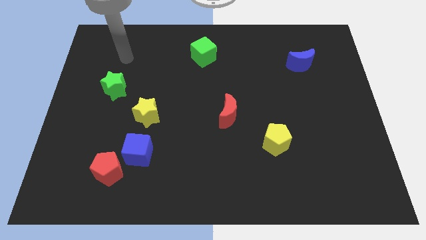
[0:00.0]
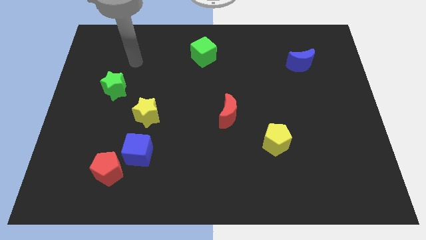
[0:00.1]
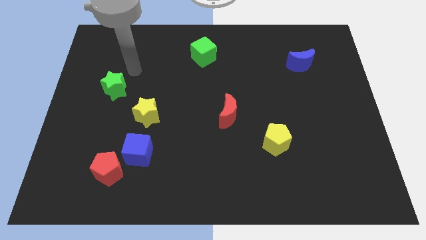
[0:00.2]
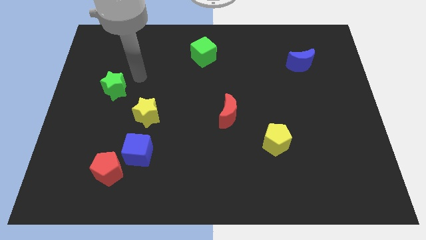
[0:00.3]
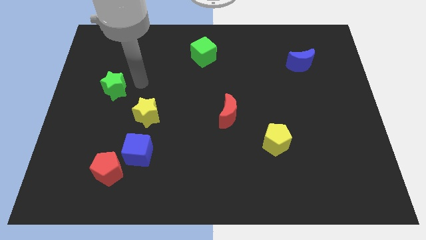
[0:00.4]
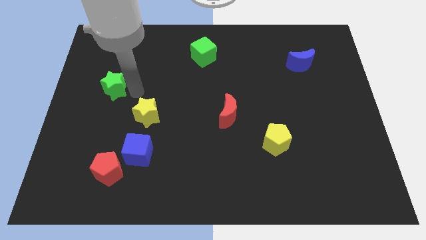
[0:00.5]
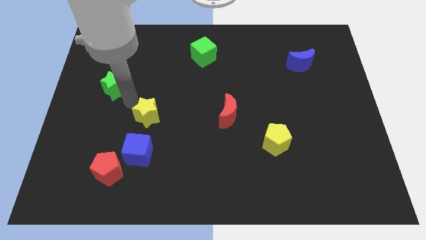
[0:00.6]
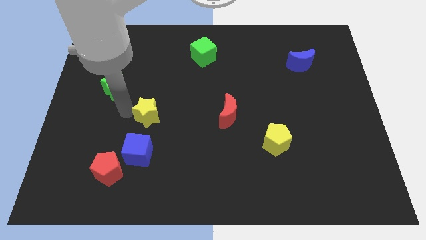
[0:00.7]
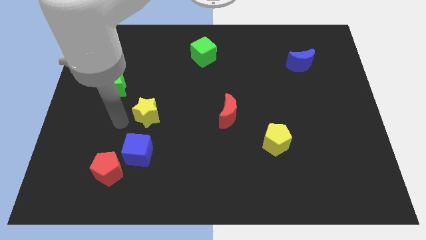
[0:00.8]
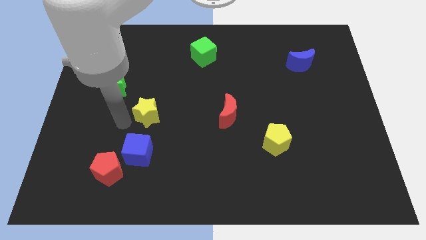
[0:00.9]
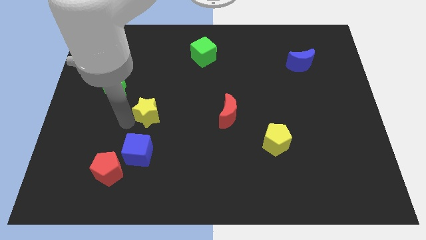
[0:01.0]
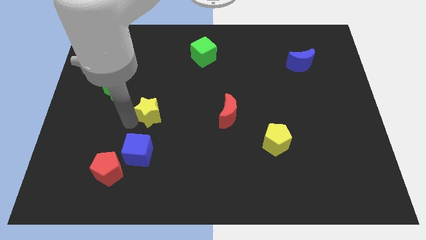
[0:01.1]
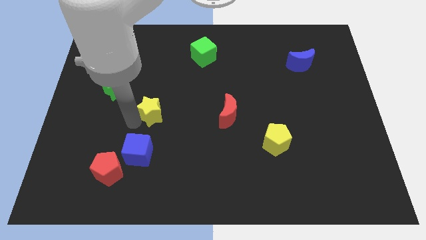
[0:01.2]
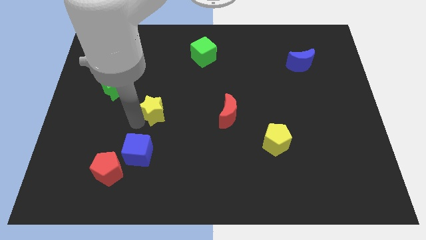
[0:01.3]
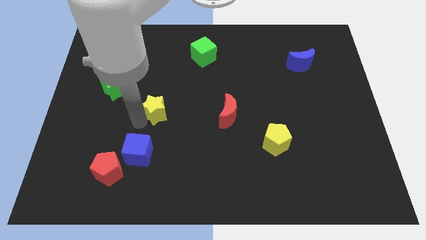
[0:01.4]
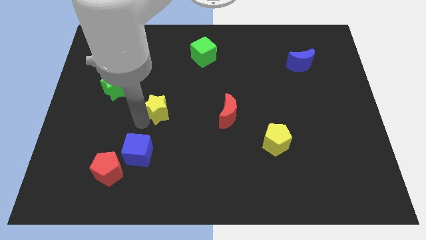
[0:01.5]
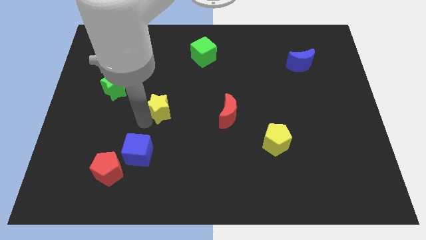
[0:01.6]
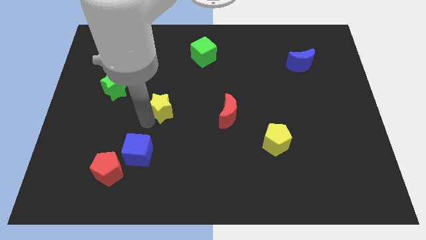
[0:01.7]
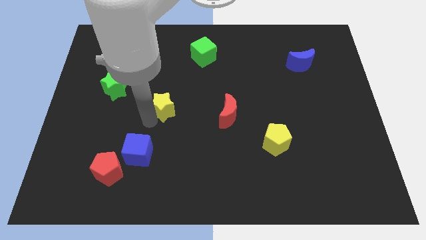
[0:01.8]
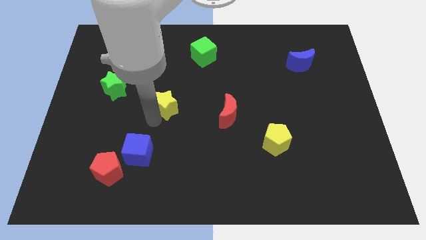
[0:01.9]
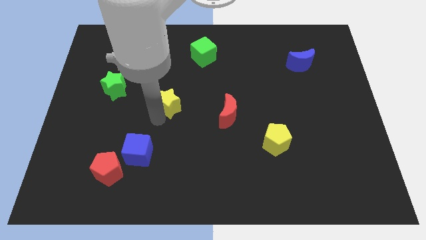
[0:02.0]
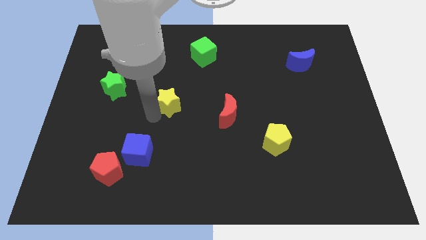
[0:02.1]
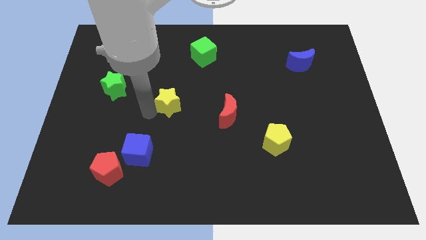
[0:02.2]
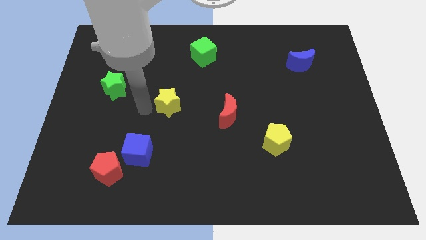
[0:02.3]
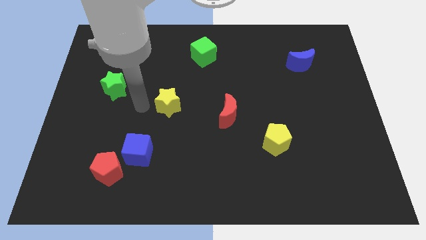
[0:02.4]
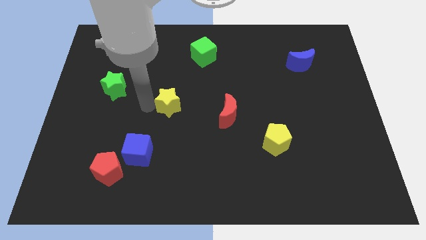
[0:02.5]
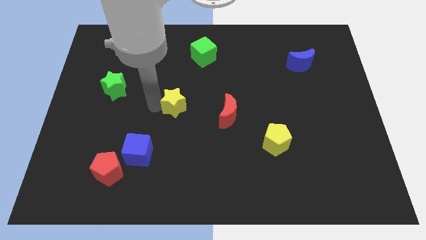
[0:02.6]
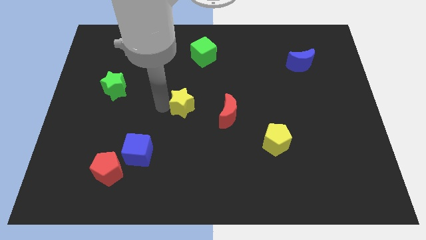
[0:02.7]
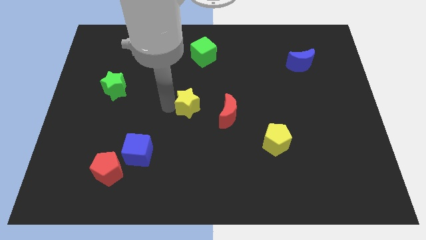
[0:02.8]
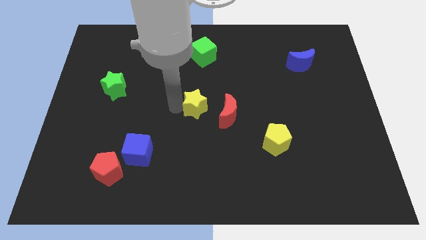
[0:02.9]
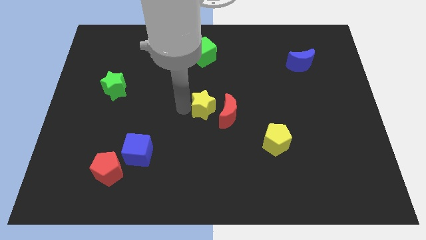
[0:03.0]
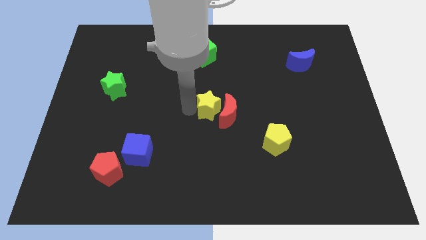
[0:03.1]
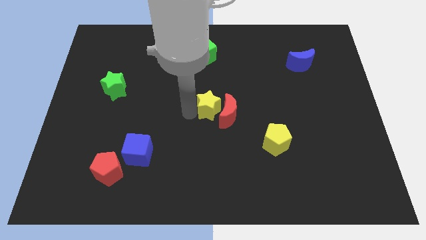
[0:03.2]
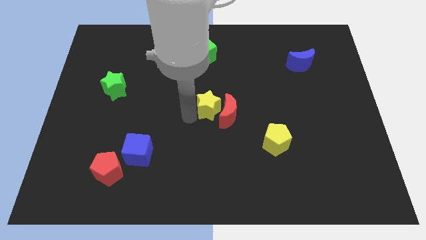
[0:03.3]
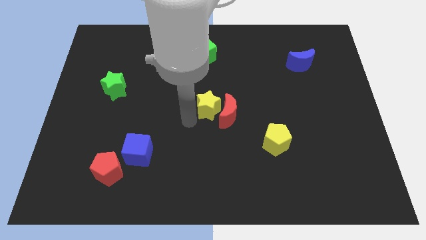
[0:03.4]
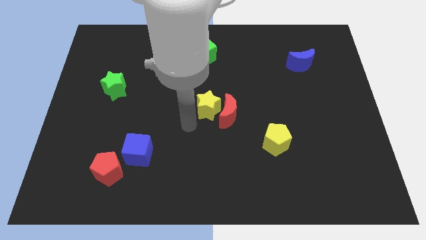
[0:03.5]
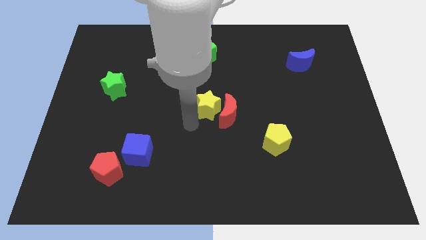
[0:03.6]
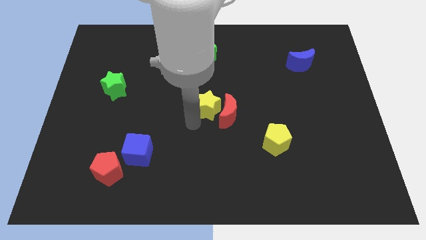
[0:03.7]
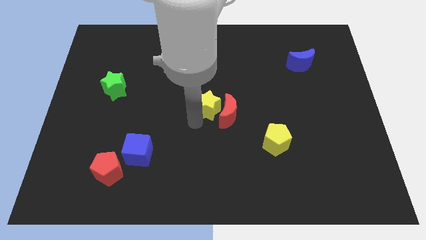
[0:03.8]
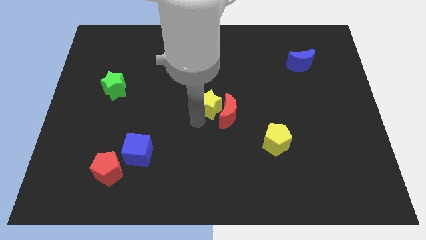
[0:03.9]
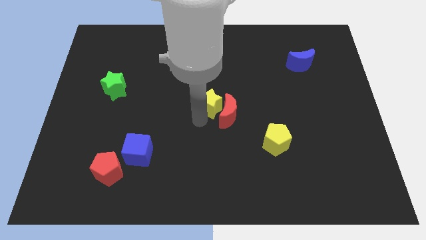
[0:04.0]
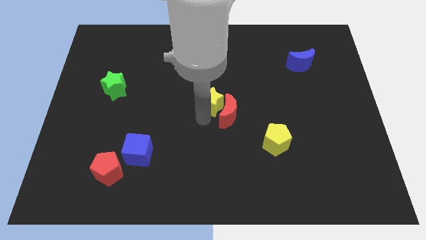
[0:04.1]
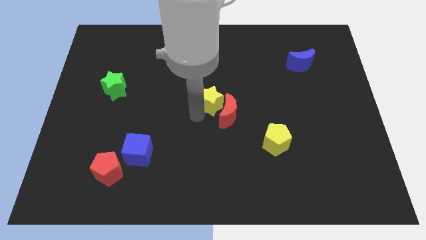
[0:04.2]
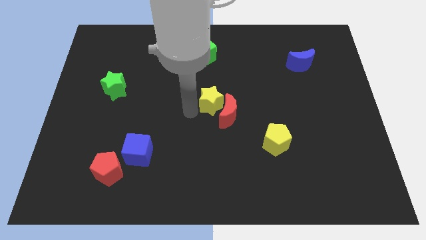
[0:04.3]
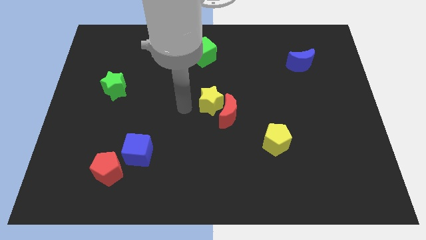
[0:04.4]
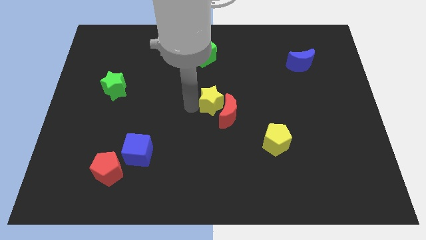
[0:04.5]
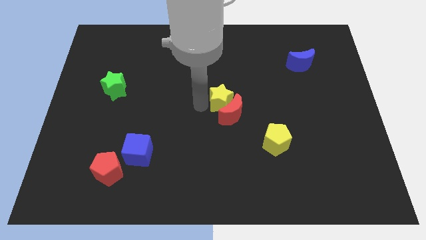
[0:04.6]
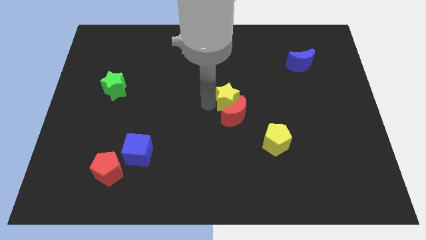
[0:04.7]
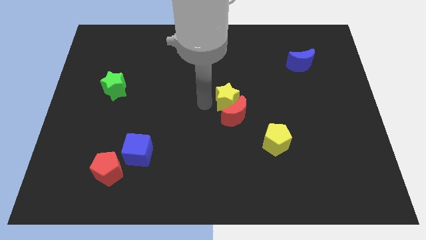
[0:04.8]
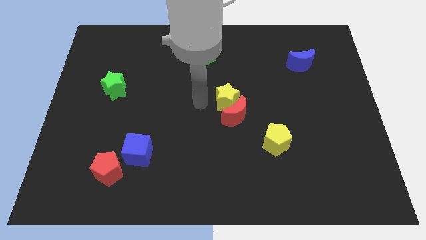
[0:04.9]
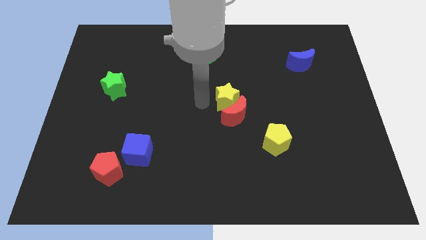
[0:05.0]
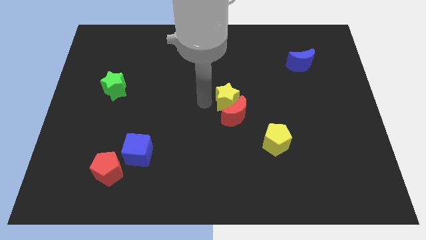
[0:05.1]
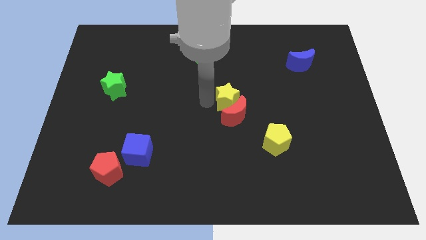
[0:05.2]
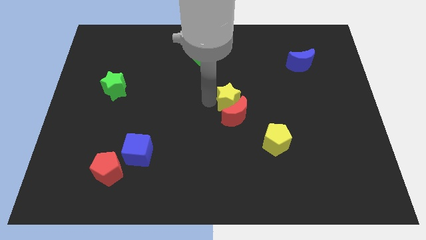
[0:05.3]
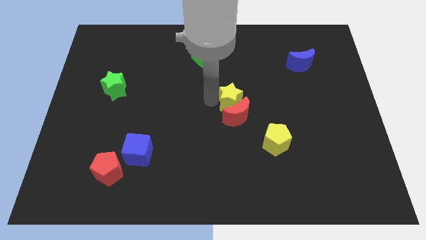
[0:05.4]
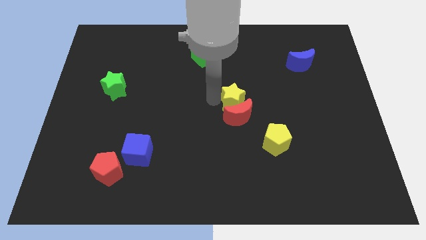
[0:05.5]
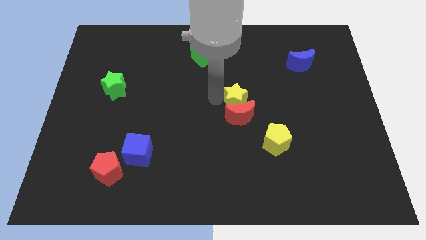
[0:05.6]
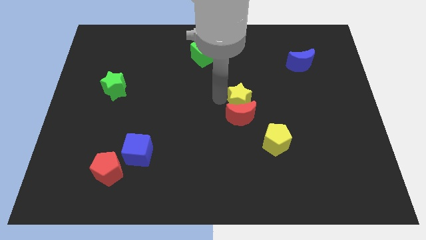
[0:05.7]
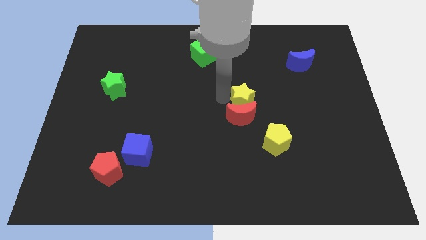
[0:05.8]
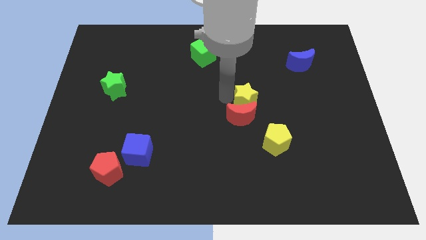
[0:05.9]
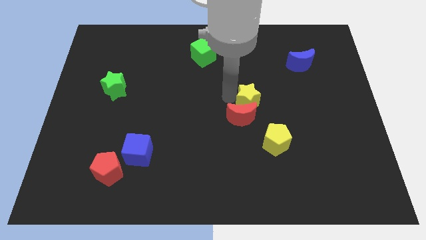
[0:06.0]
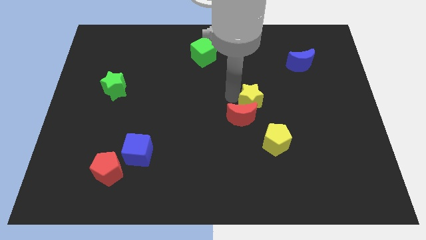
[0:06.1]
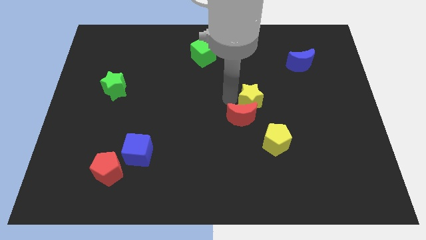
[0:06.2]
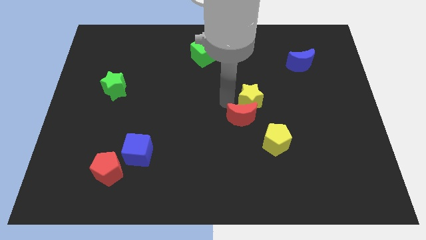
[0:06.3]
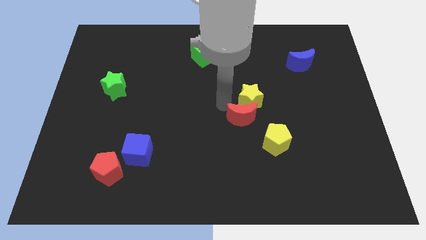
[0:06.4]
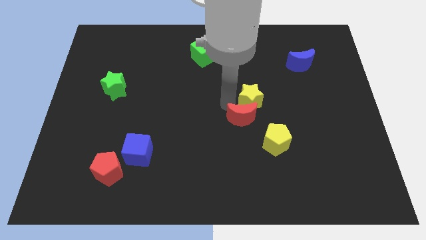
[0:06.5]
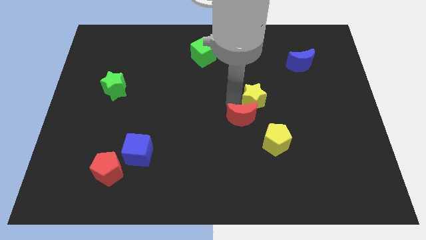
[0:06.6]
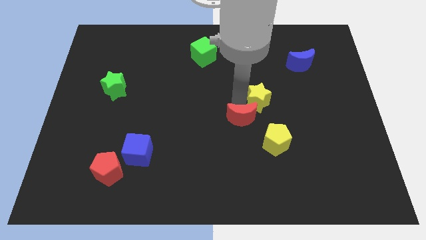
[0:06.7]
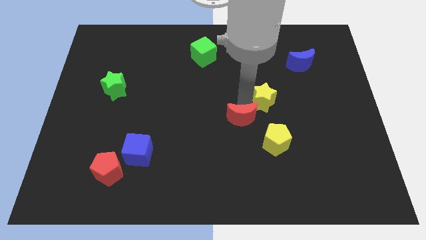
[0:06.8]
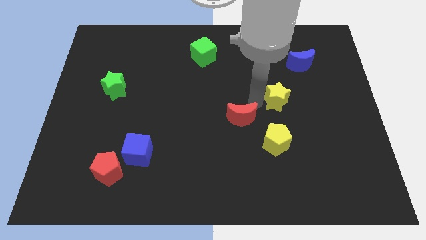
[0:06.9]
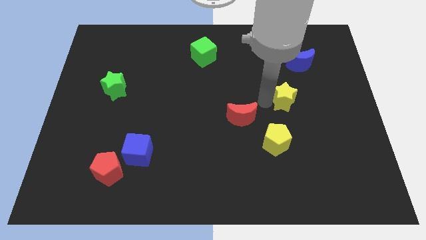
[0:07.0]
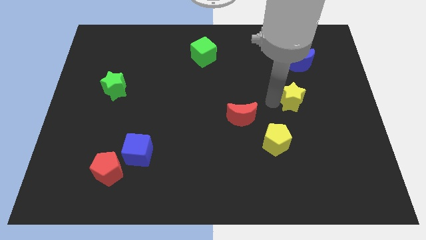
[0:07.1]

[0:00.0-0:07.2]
push the yellow star below the blue moon
